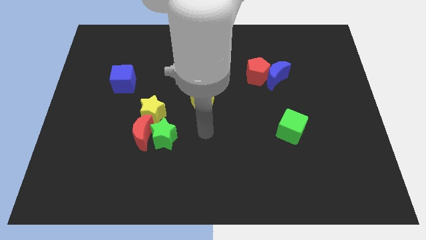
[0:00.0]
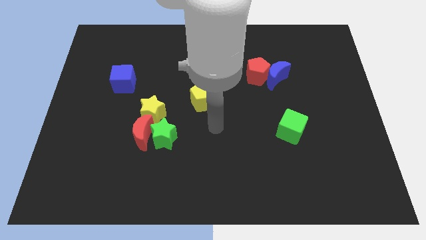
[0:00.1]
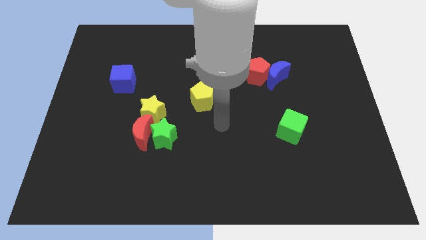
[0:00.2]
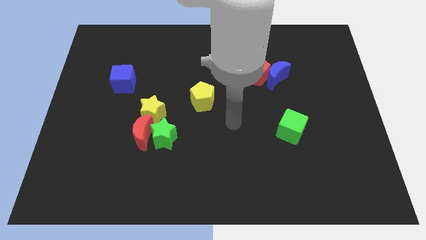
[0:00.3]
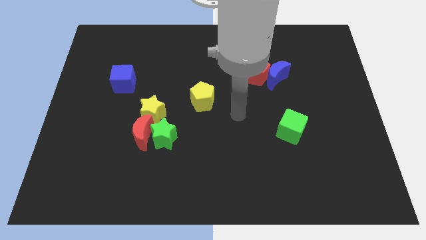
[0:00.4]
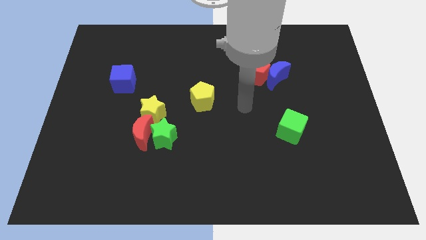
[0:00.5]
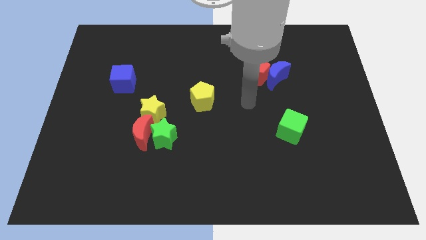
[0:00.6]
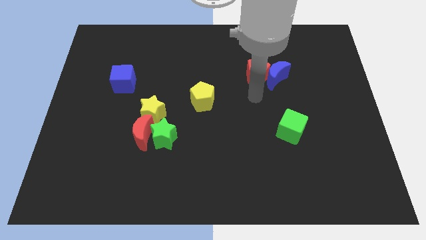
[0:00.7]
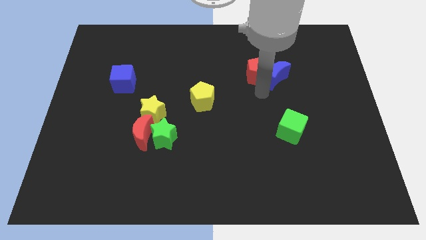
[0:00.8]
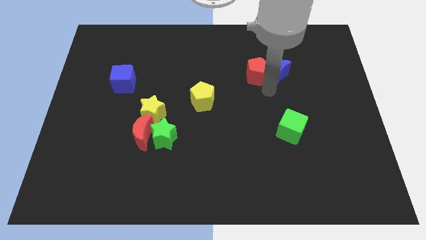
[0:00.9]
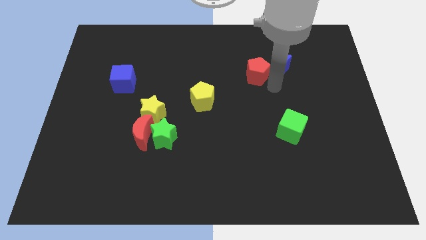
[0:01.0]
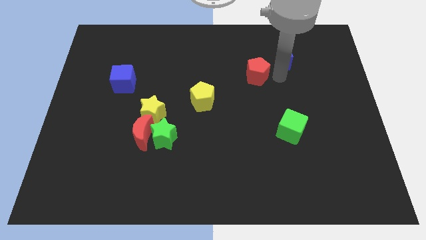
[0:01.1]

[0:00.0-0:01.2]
move the red pentagon away from the blue moon

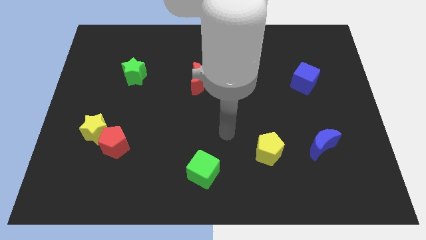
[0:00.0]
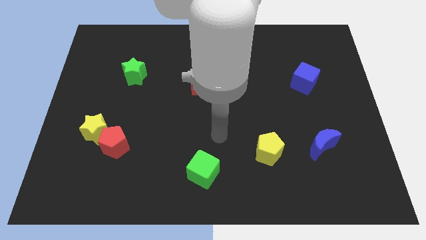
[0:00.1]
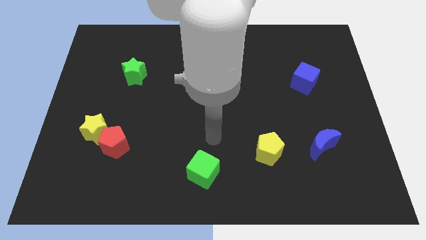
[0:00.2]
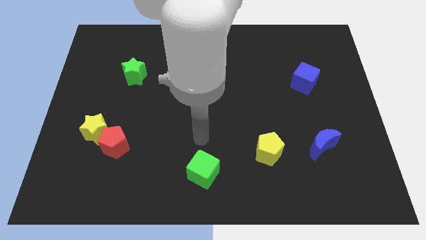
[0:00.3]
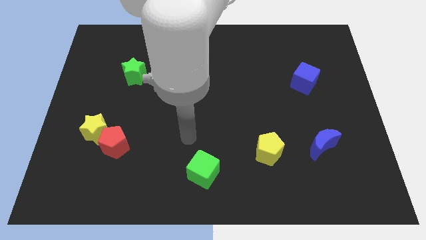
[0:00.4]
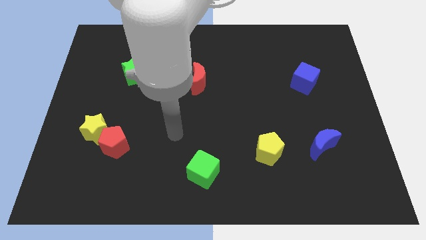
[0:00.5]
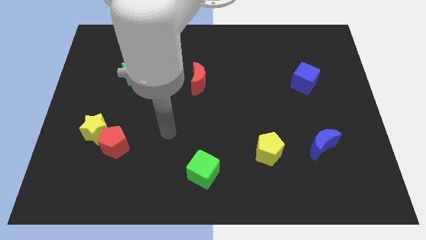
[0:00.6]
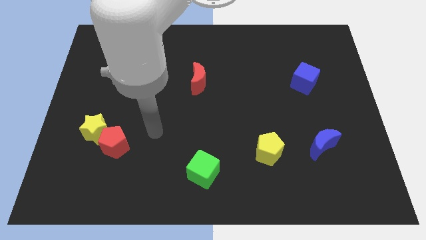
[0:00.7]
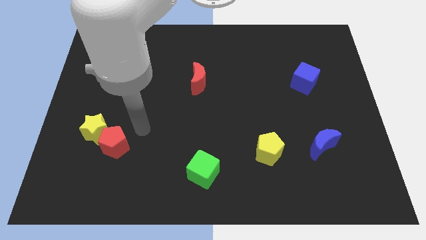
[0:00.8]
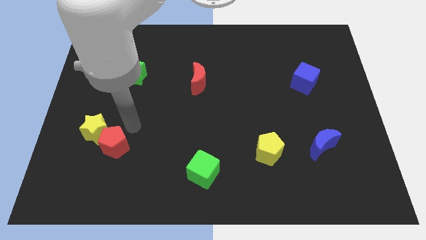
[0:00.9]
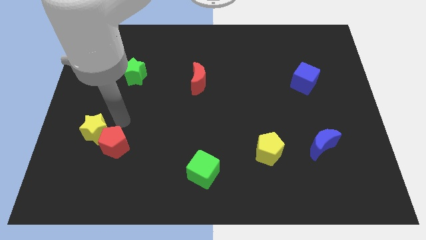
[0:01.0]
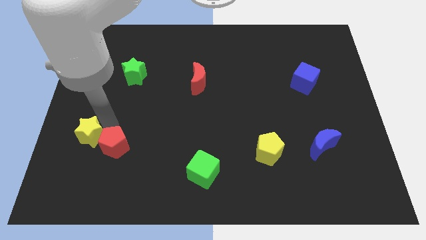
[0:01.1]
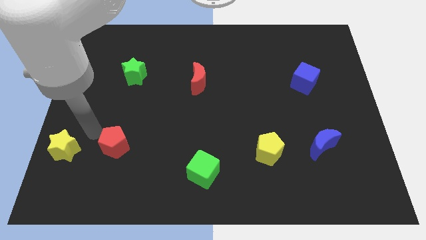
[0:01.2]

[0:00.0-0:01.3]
pull the red pentagon apart from the yellow star

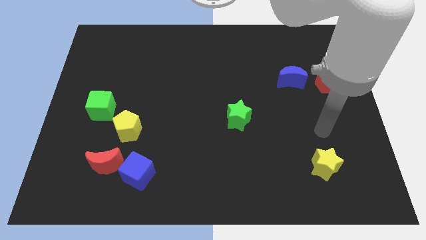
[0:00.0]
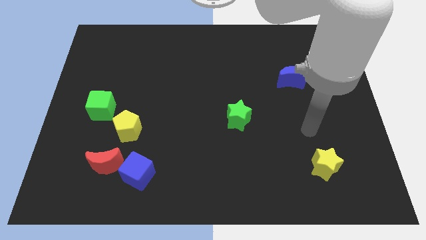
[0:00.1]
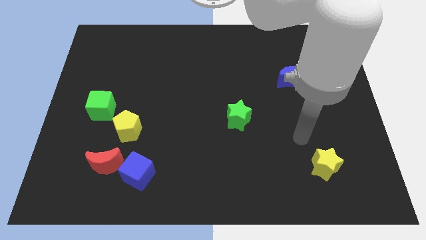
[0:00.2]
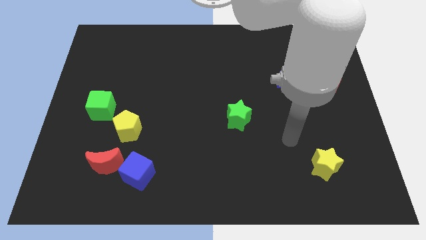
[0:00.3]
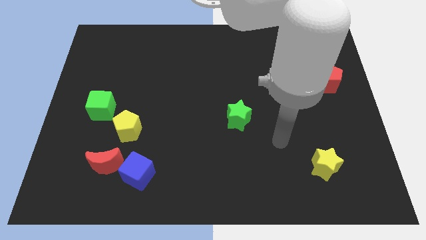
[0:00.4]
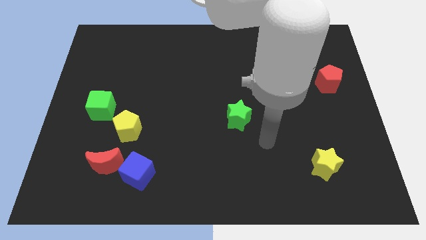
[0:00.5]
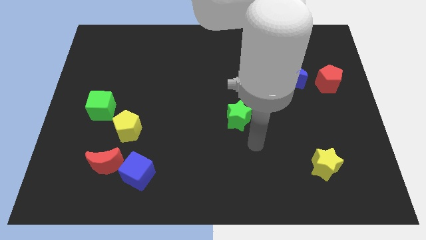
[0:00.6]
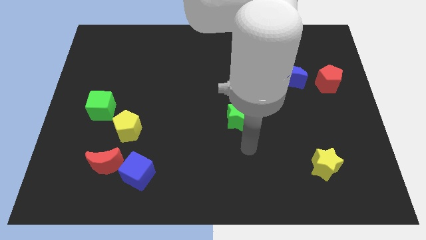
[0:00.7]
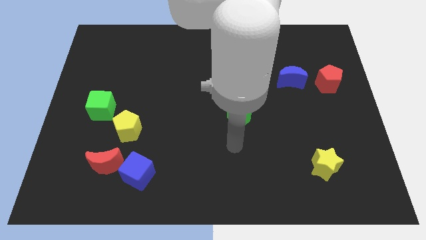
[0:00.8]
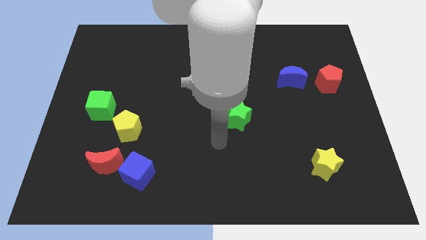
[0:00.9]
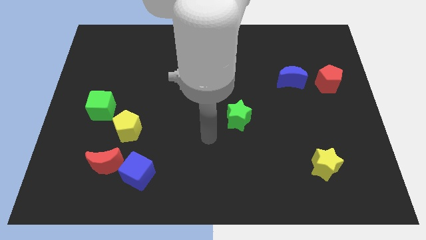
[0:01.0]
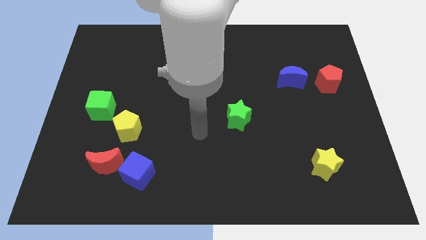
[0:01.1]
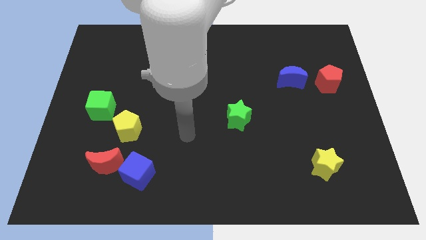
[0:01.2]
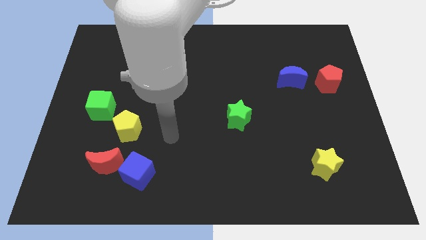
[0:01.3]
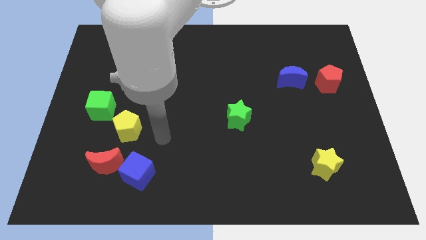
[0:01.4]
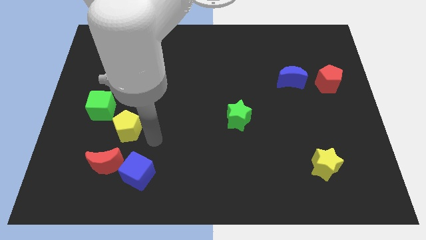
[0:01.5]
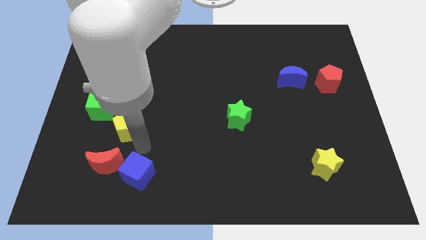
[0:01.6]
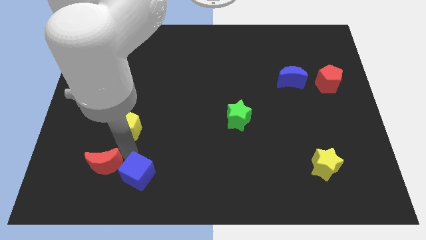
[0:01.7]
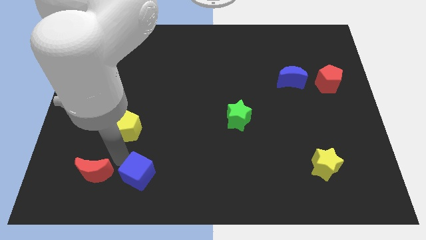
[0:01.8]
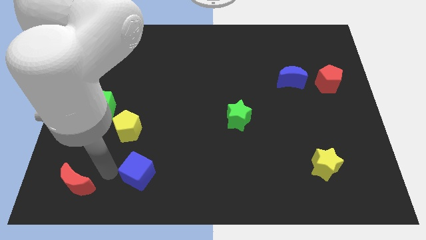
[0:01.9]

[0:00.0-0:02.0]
pull the blue cube apart from the red moon

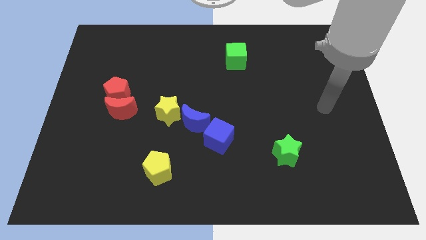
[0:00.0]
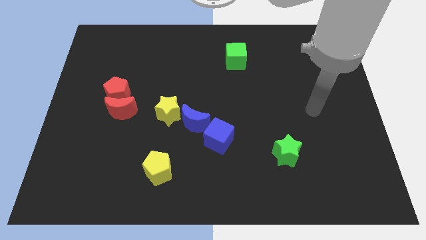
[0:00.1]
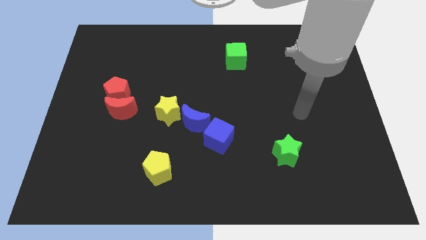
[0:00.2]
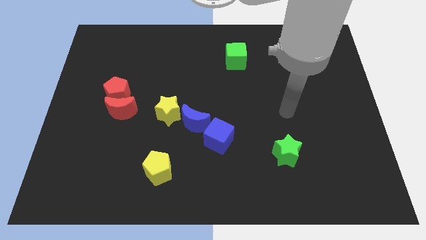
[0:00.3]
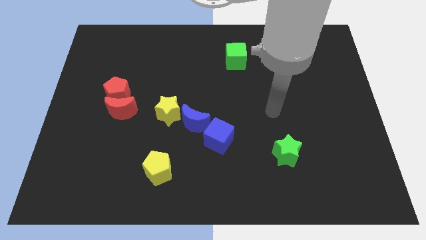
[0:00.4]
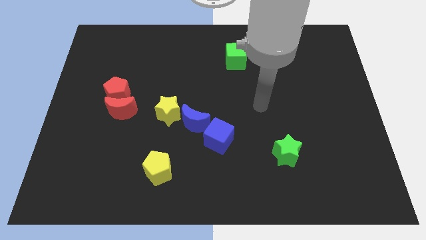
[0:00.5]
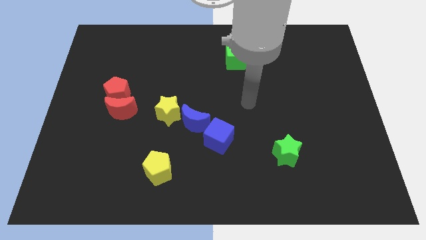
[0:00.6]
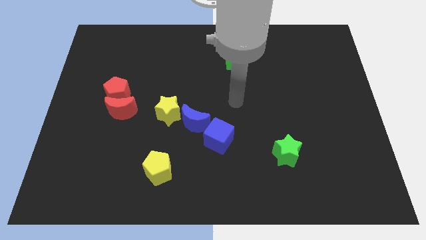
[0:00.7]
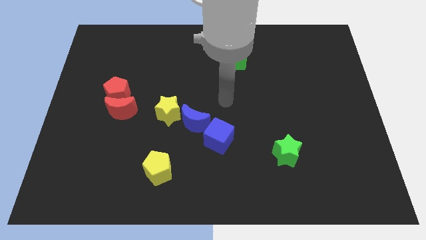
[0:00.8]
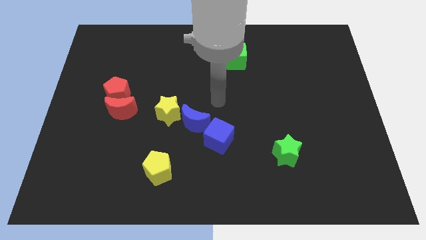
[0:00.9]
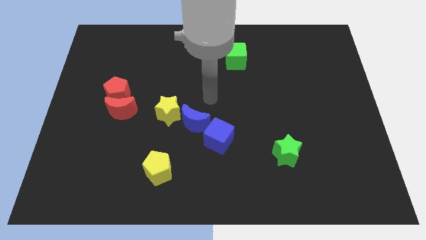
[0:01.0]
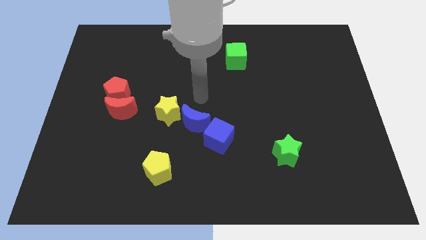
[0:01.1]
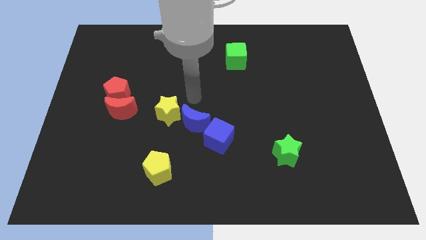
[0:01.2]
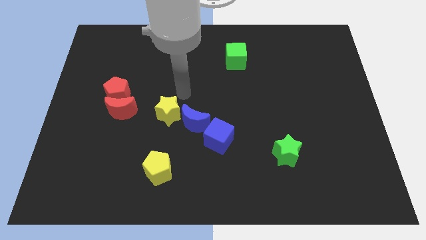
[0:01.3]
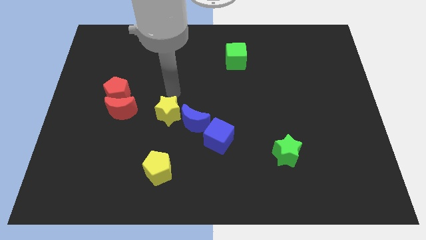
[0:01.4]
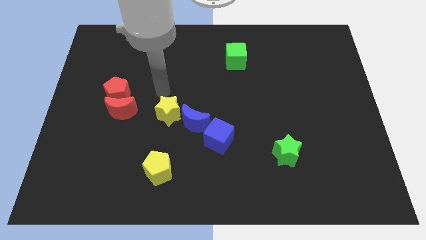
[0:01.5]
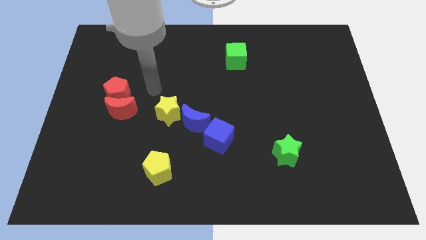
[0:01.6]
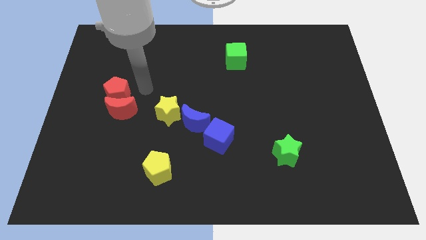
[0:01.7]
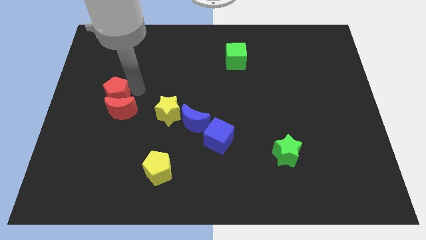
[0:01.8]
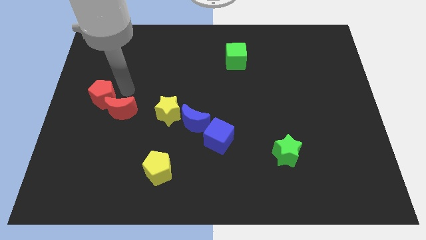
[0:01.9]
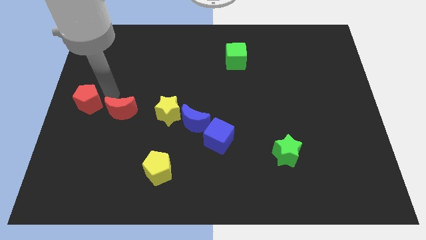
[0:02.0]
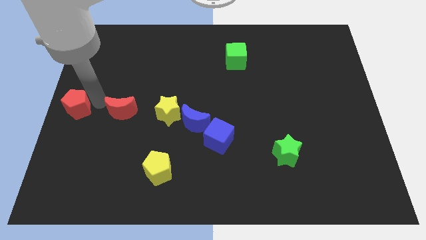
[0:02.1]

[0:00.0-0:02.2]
separate the red moon from the red pentagon

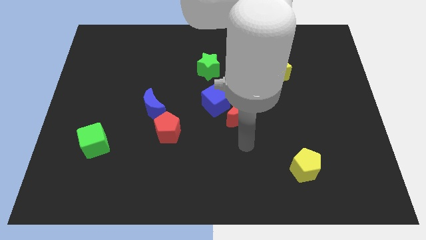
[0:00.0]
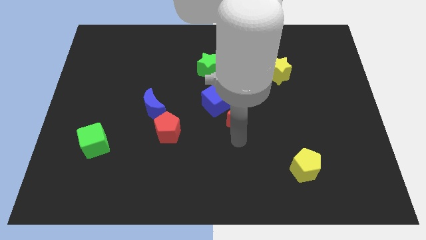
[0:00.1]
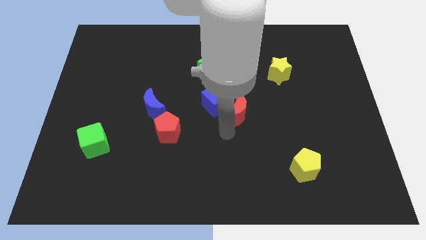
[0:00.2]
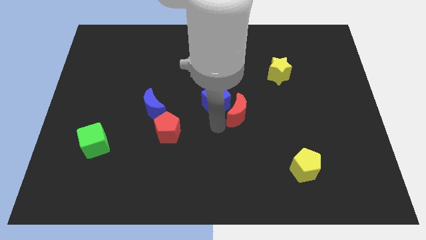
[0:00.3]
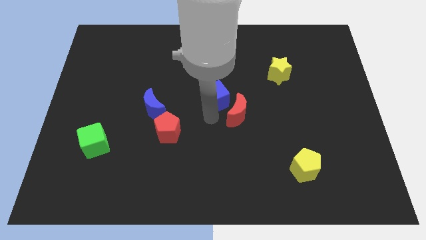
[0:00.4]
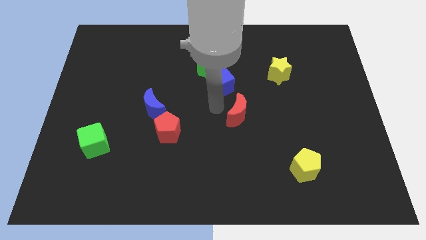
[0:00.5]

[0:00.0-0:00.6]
pull the red moon apart from the blue cube

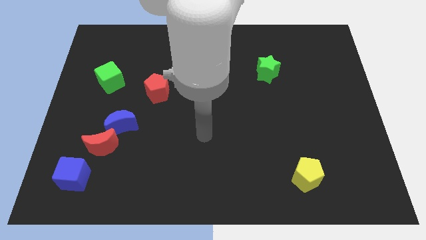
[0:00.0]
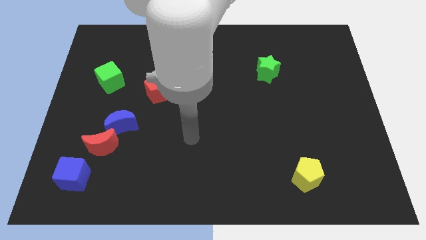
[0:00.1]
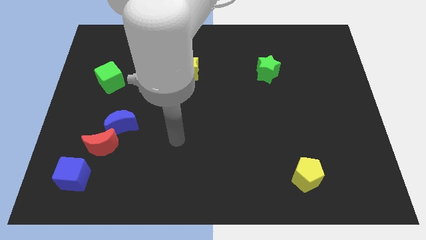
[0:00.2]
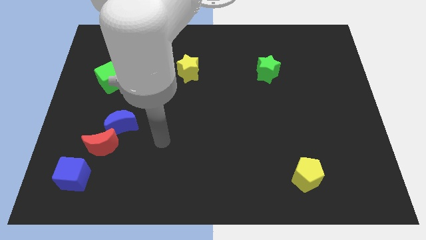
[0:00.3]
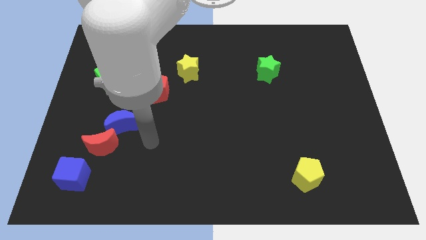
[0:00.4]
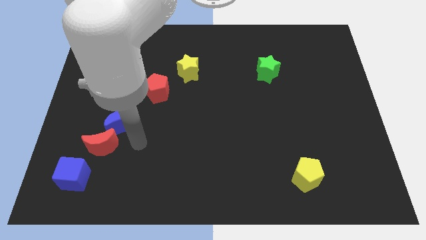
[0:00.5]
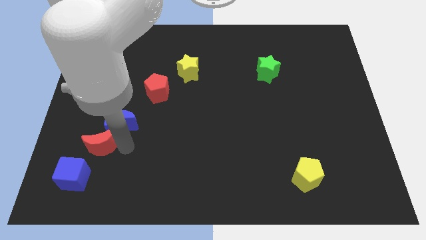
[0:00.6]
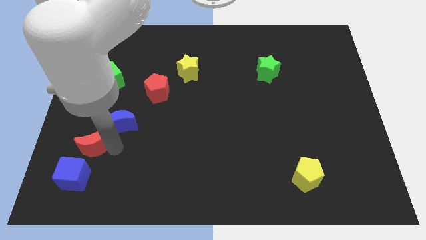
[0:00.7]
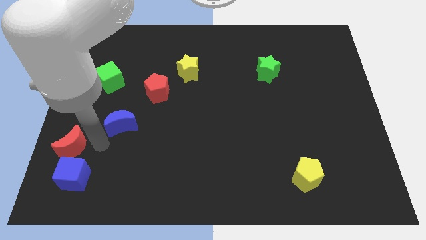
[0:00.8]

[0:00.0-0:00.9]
move the blue moon away from the red moon

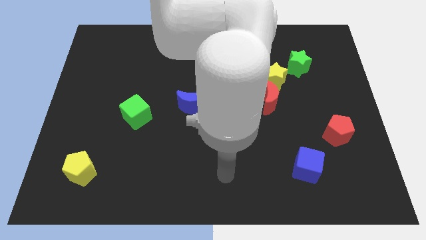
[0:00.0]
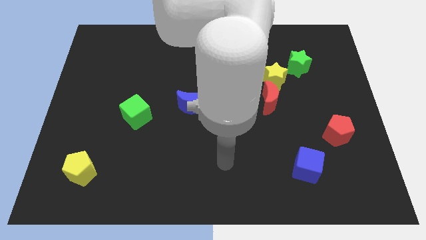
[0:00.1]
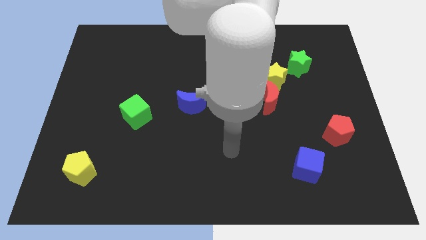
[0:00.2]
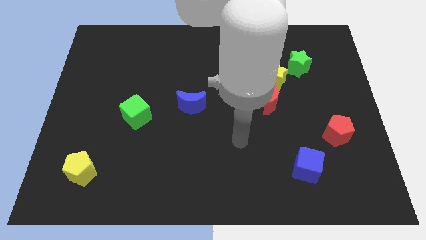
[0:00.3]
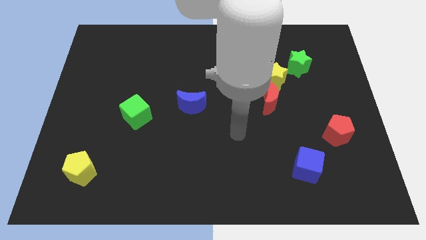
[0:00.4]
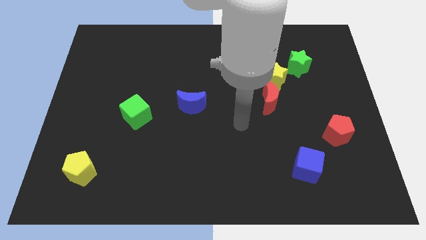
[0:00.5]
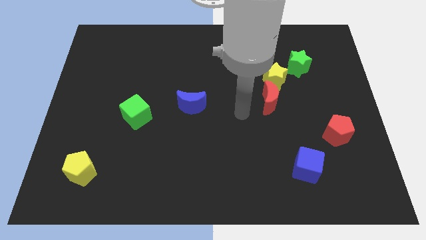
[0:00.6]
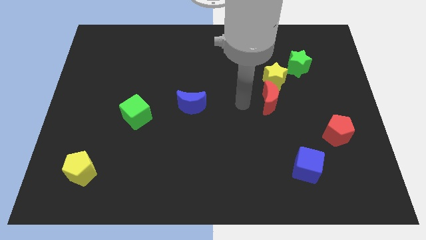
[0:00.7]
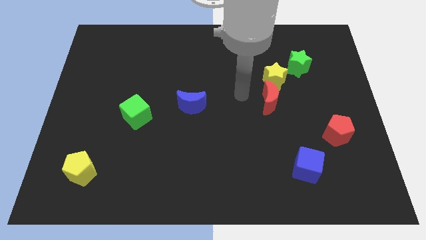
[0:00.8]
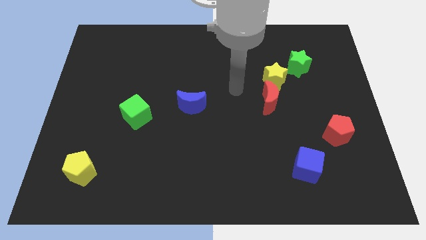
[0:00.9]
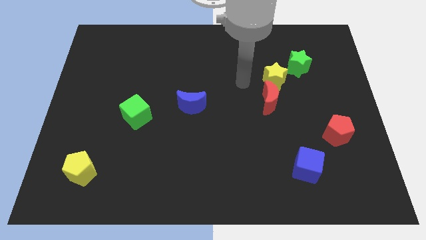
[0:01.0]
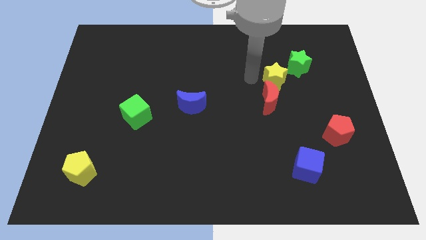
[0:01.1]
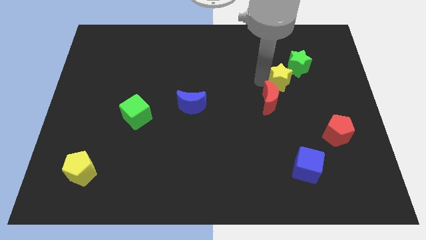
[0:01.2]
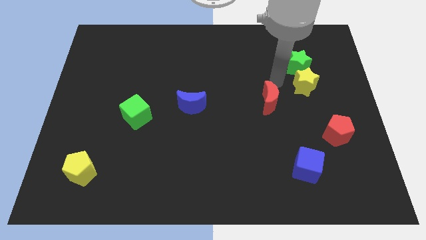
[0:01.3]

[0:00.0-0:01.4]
separate the red moon from the yellow star
